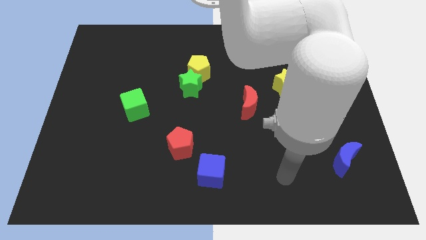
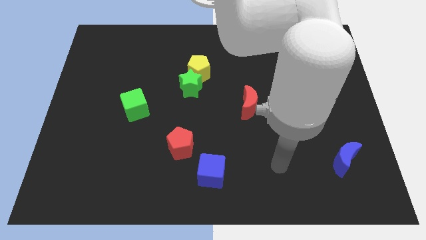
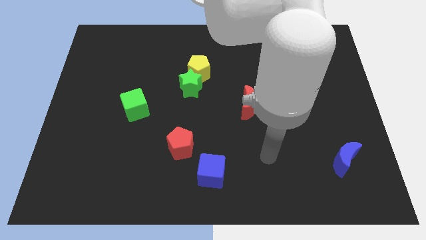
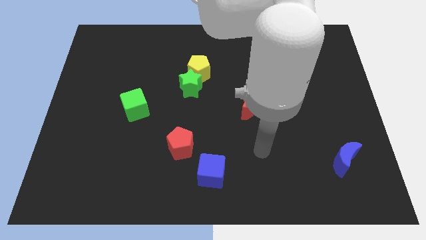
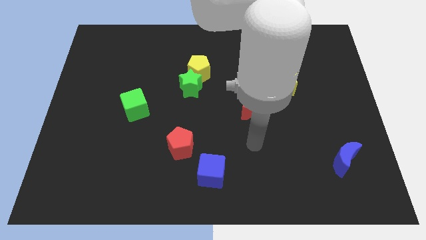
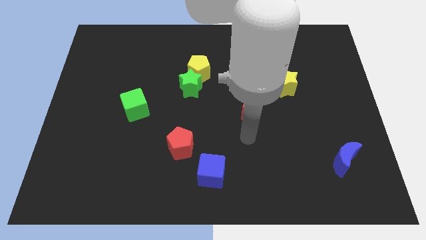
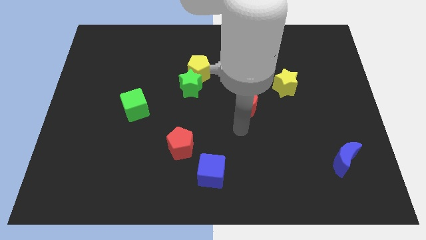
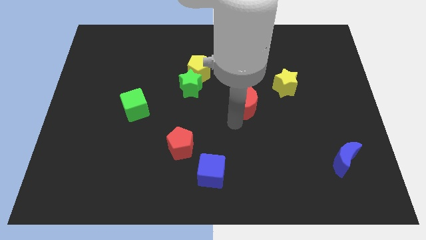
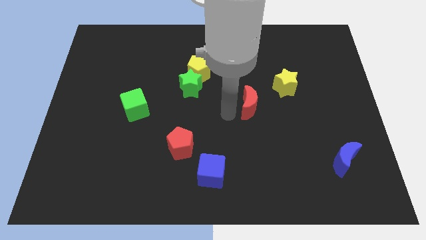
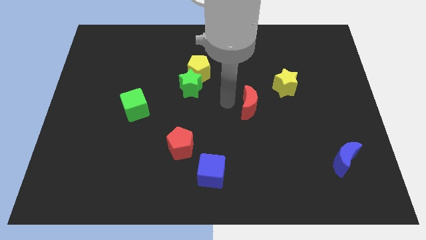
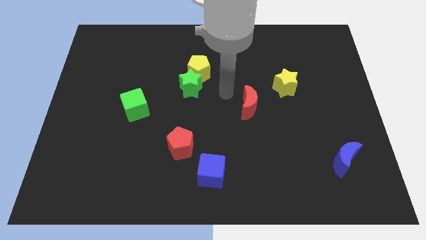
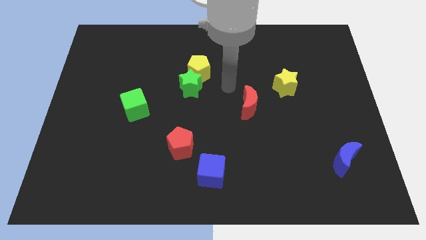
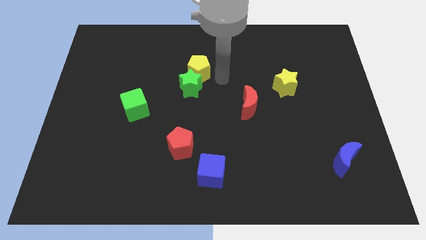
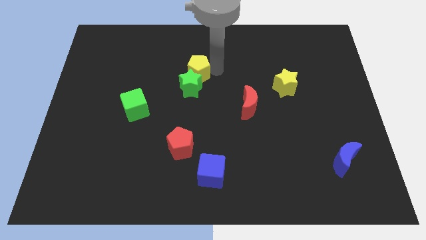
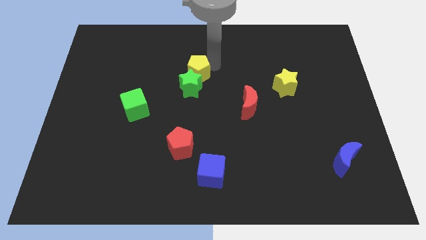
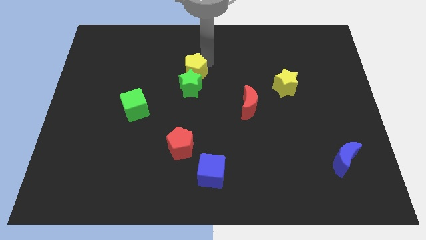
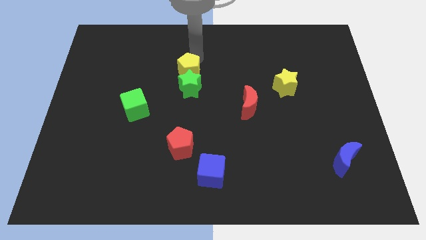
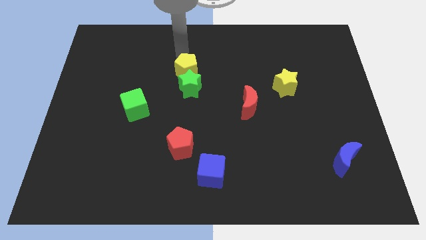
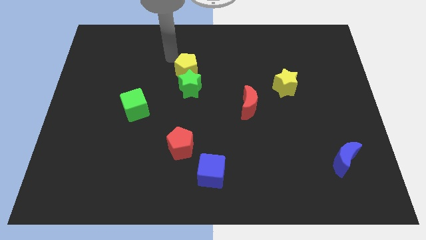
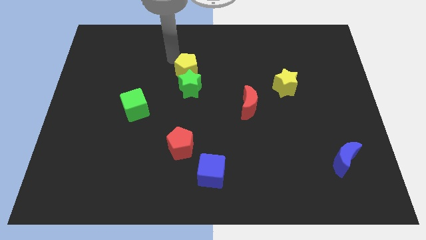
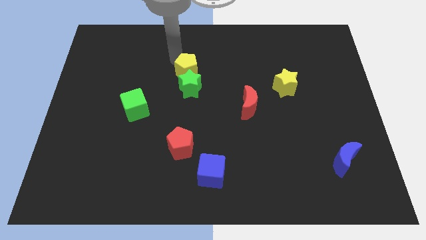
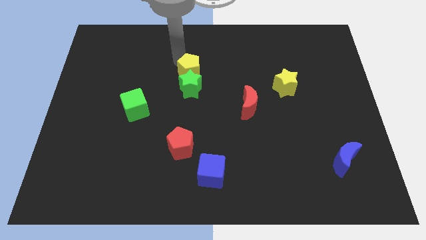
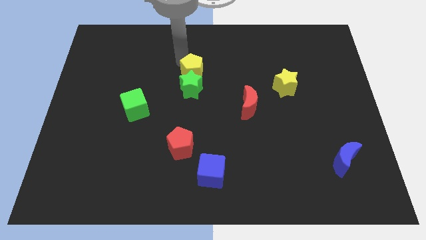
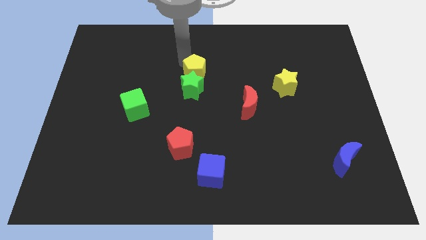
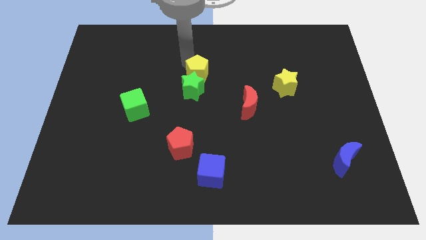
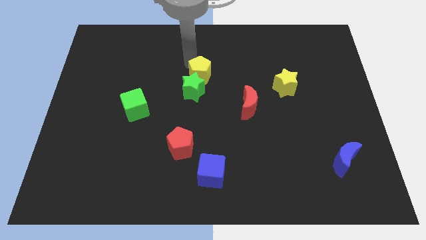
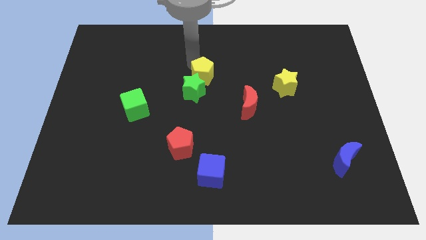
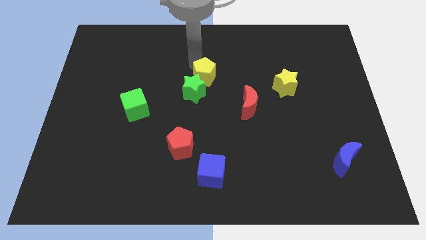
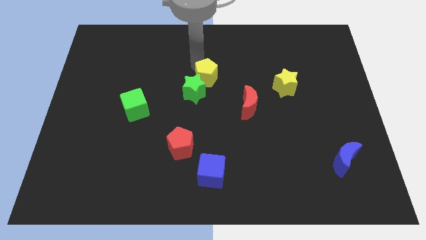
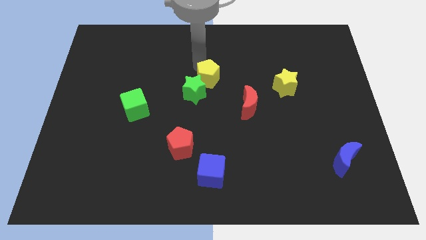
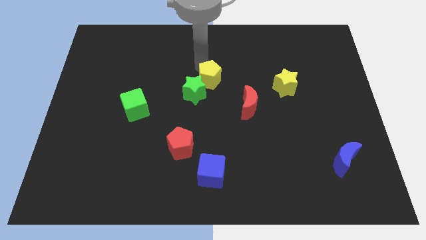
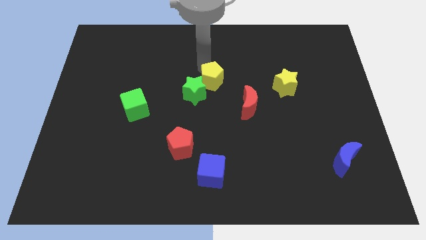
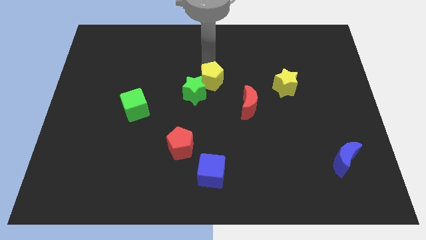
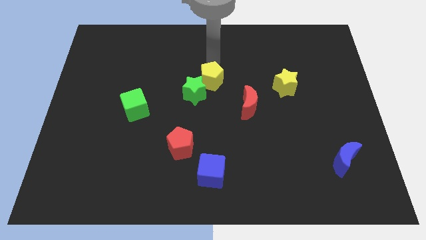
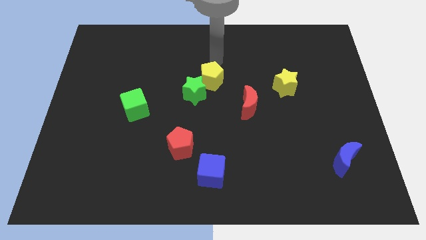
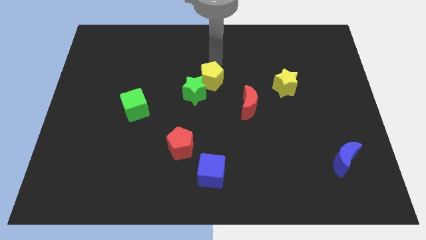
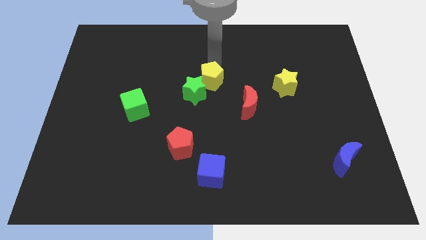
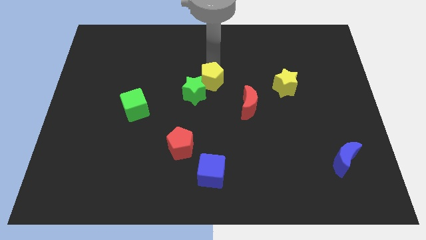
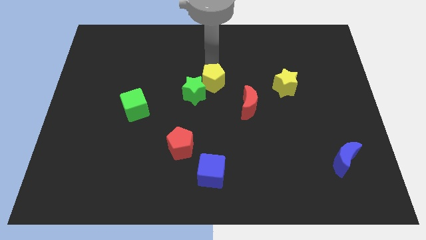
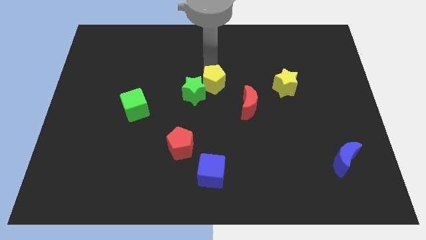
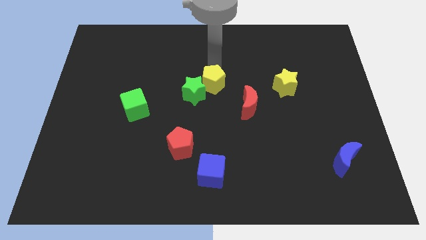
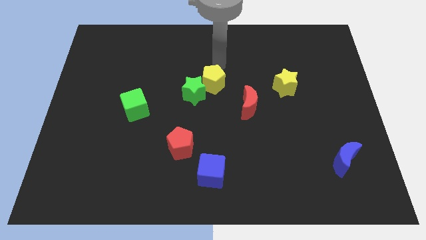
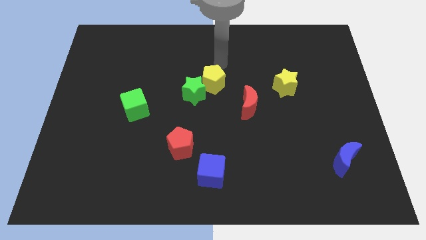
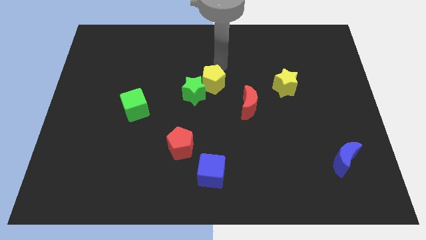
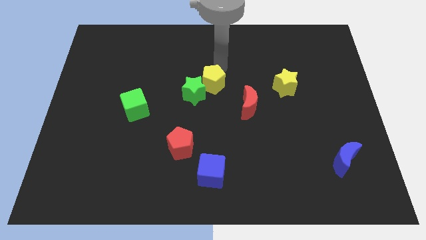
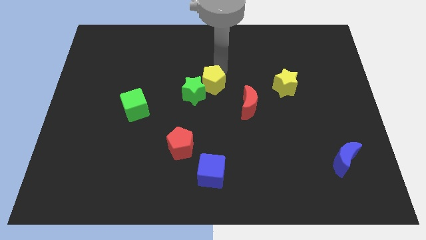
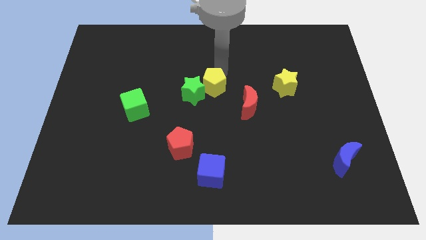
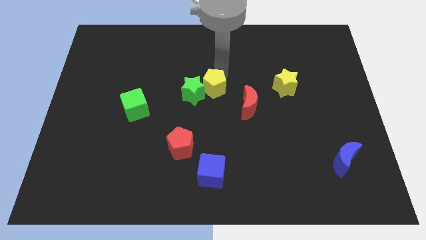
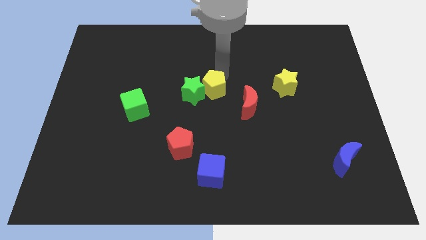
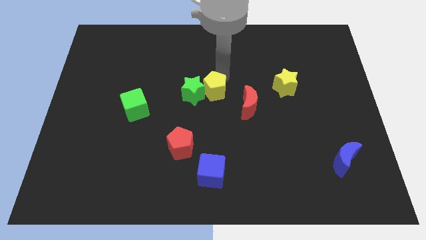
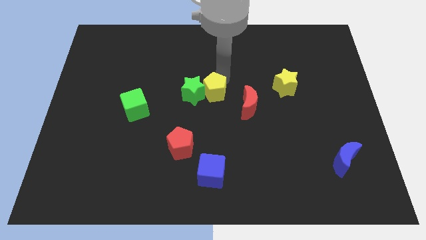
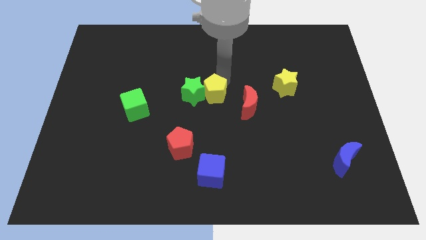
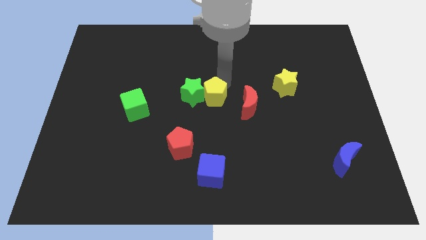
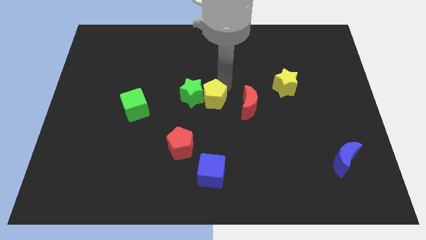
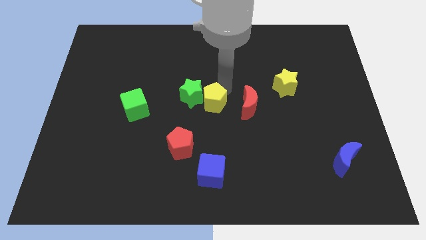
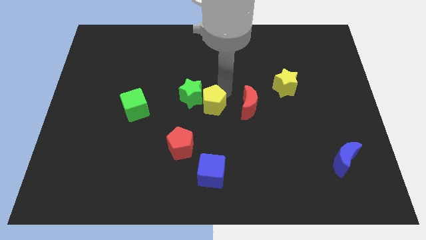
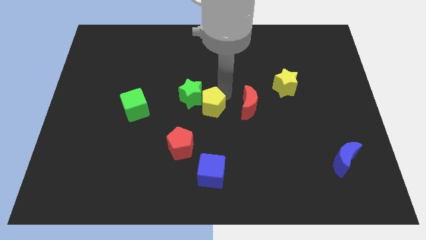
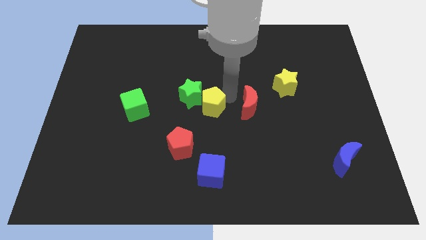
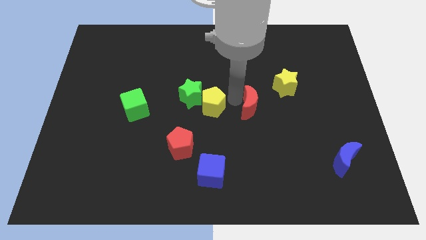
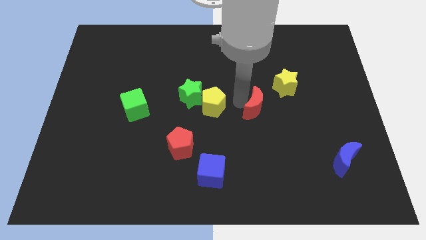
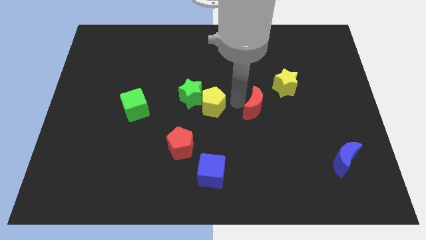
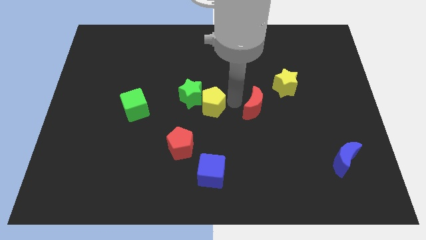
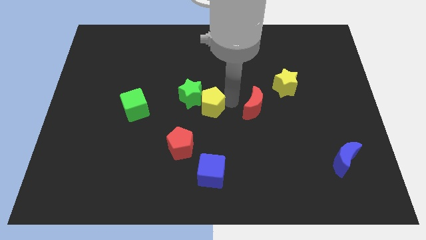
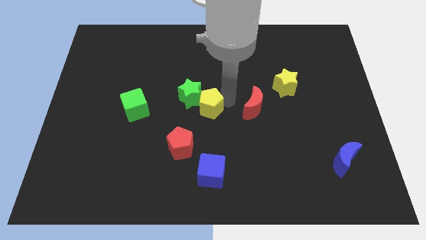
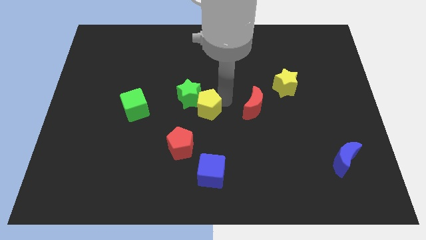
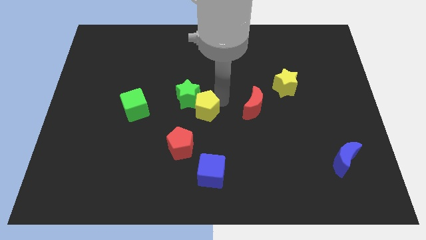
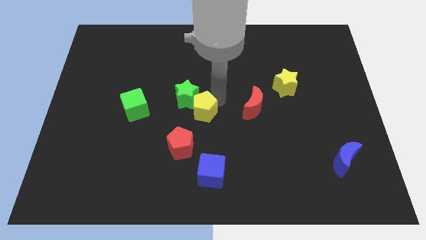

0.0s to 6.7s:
move the yellow pentagon above the red pentagon

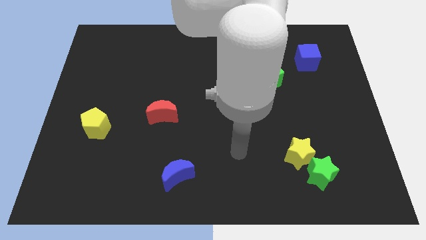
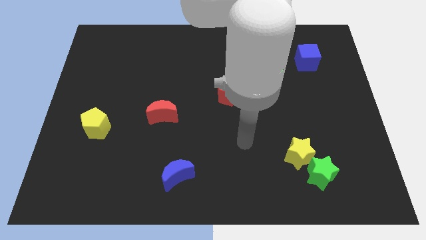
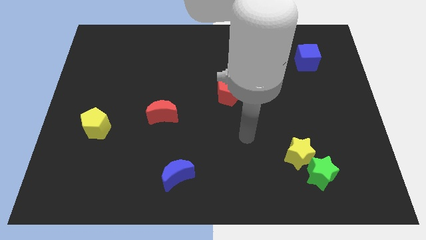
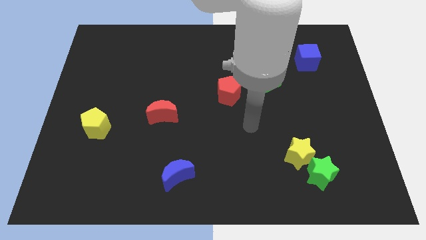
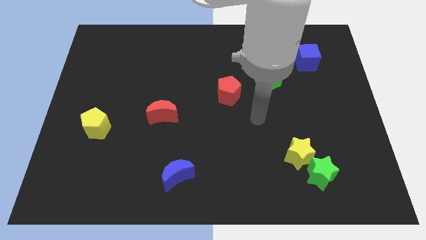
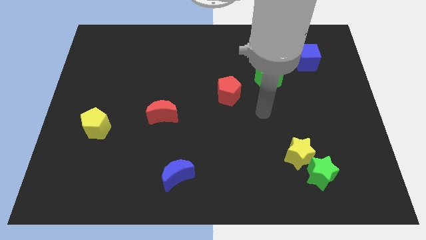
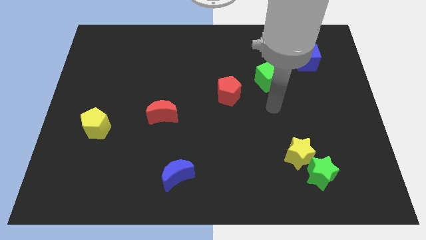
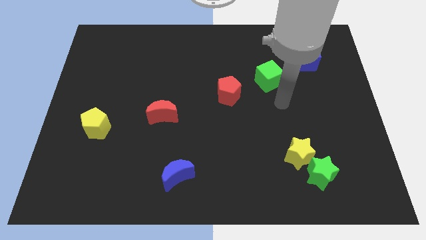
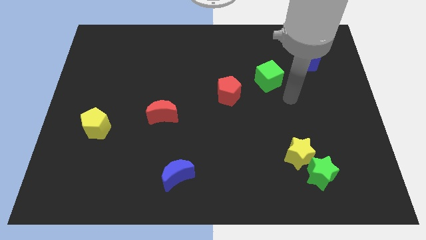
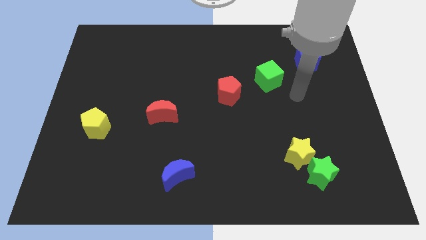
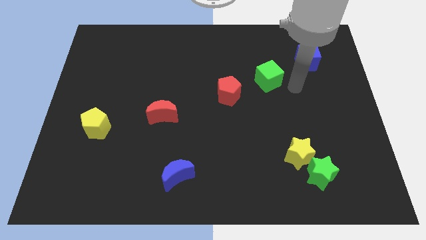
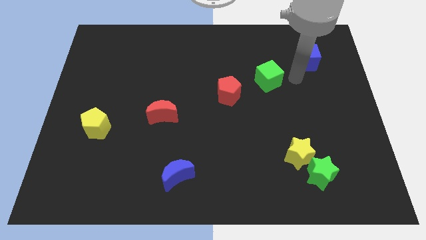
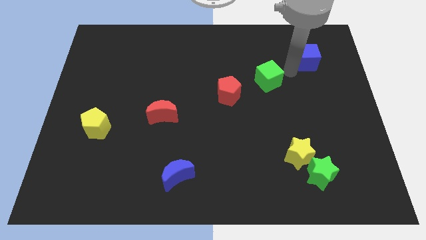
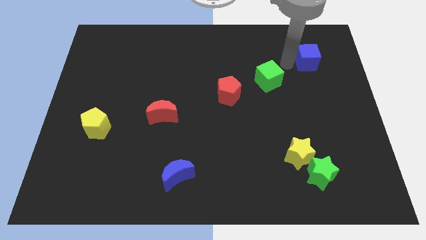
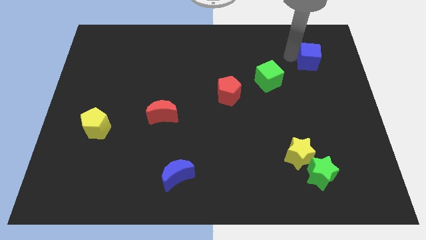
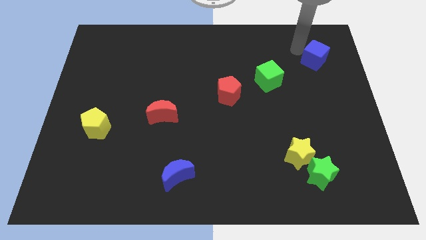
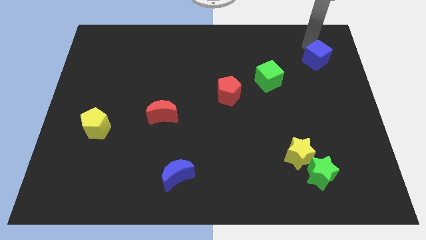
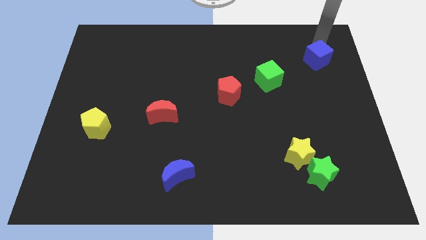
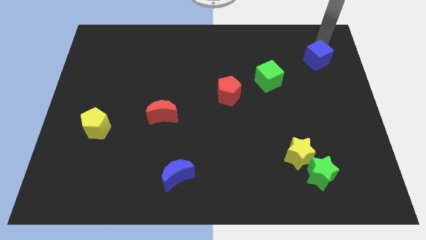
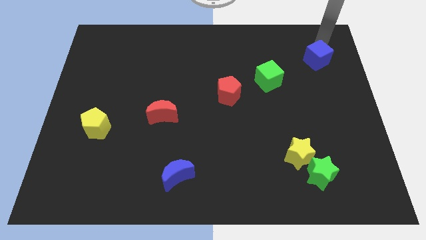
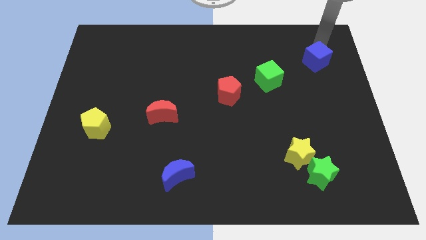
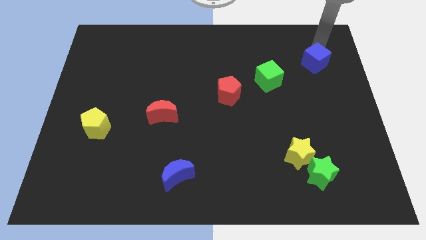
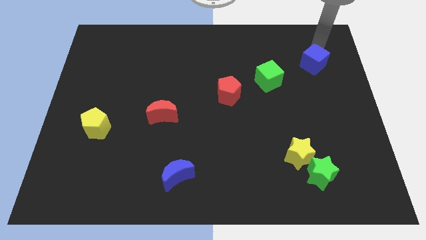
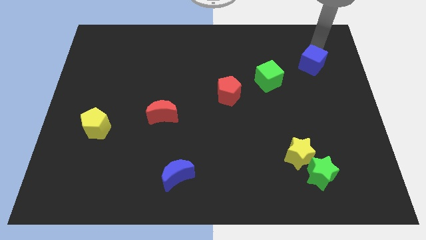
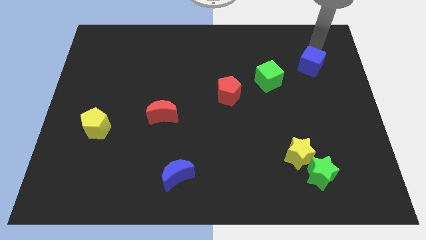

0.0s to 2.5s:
push the blue cube to the right side of the green cube
